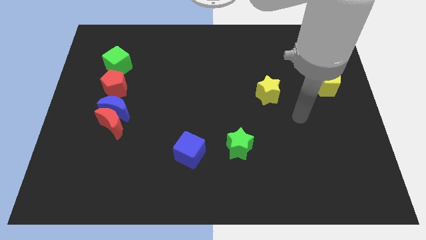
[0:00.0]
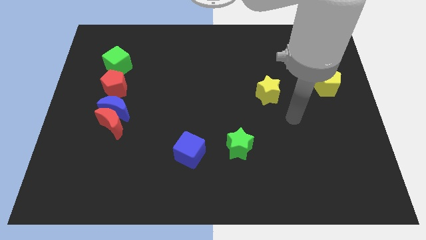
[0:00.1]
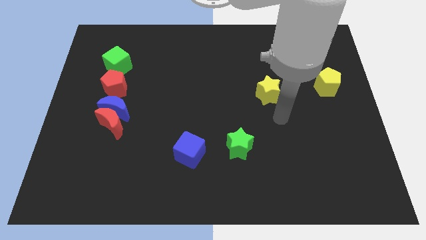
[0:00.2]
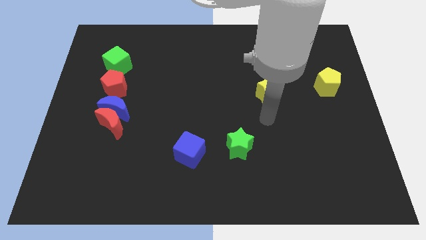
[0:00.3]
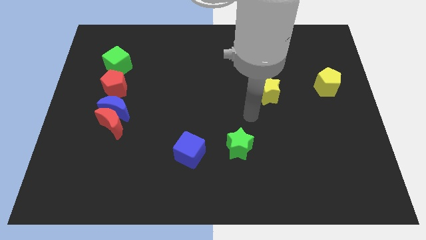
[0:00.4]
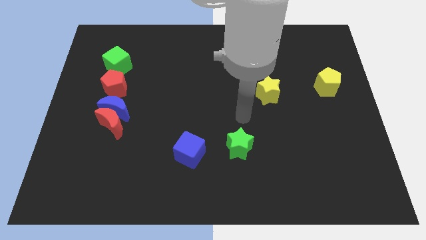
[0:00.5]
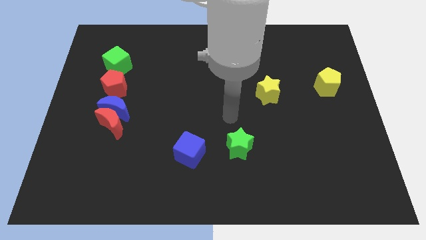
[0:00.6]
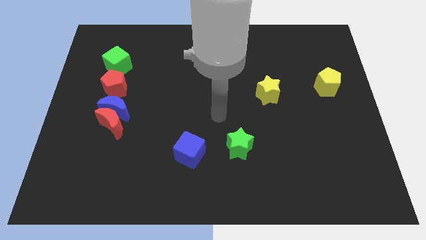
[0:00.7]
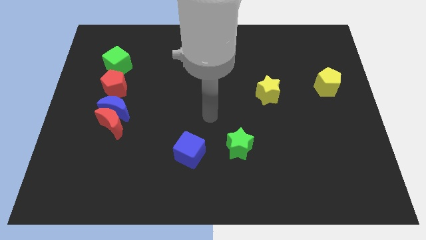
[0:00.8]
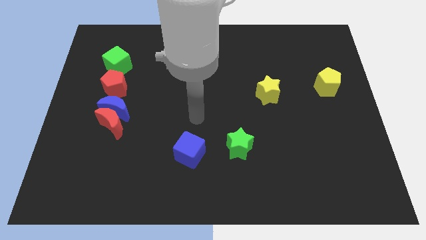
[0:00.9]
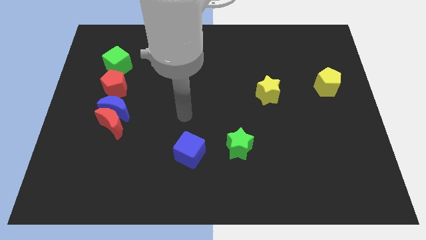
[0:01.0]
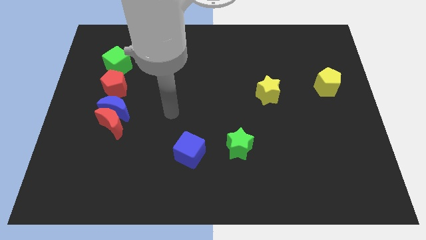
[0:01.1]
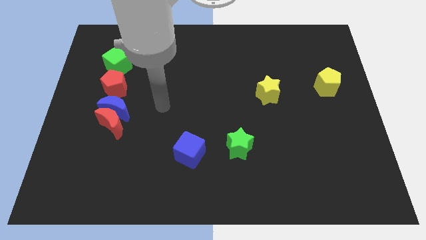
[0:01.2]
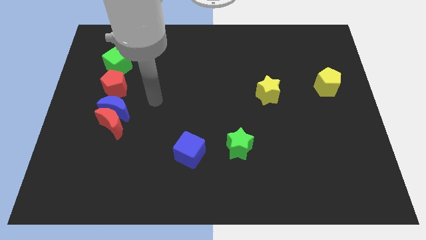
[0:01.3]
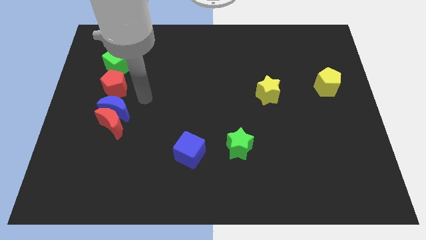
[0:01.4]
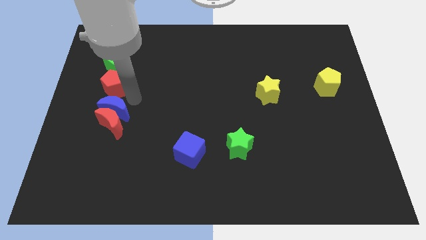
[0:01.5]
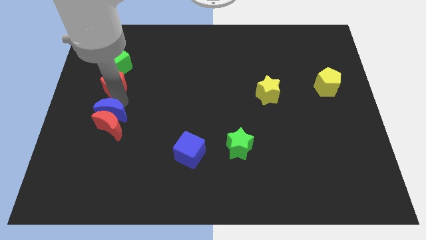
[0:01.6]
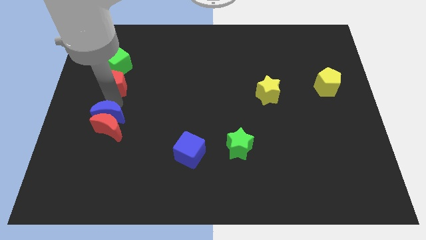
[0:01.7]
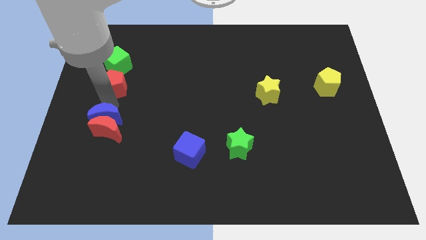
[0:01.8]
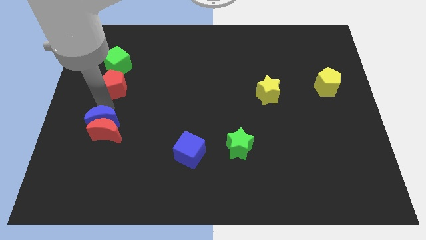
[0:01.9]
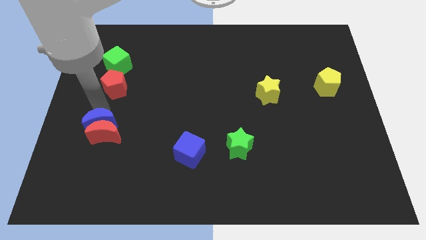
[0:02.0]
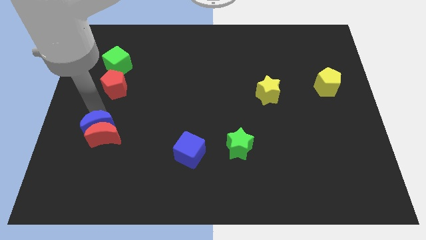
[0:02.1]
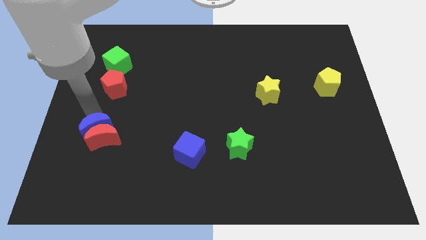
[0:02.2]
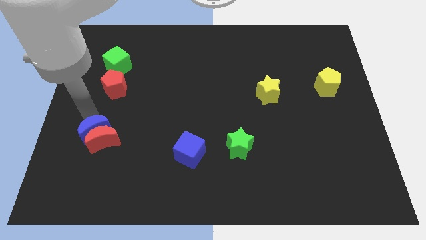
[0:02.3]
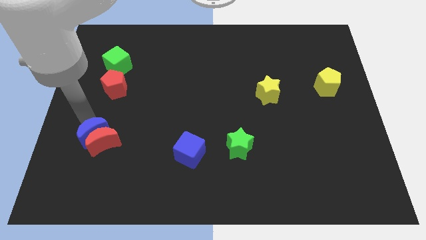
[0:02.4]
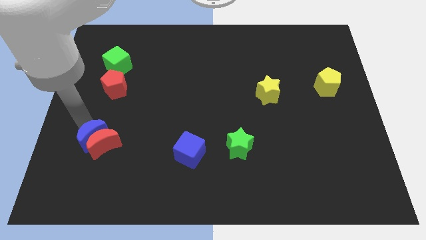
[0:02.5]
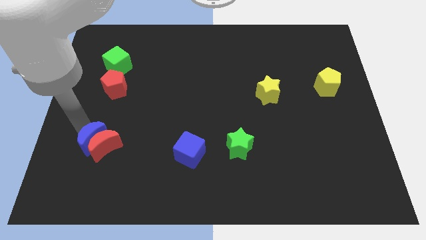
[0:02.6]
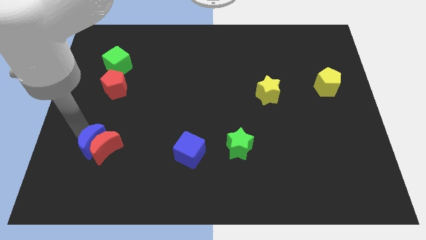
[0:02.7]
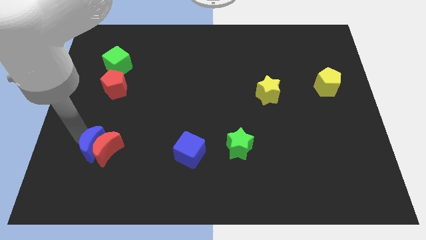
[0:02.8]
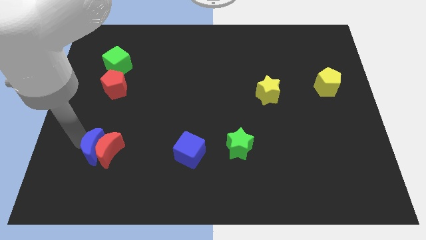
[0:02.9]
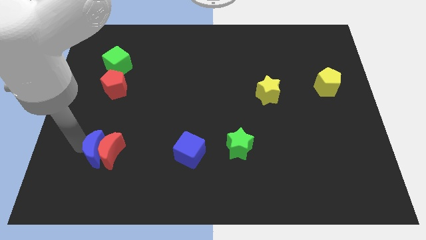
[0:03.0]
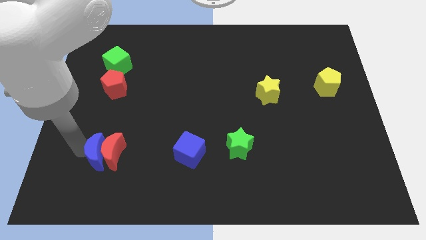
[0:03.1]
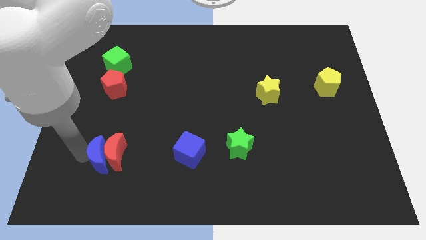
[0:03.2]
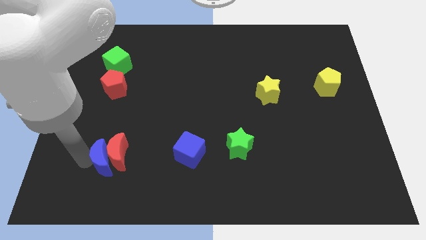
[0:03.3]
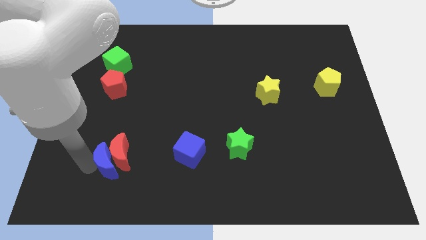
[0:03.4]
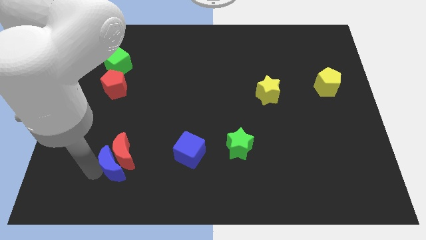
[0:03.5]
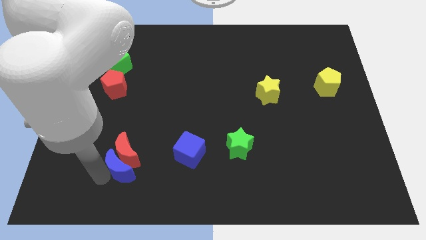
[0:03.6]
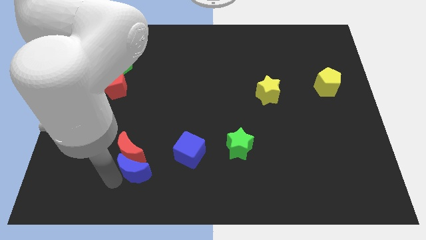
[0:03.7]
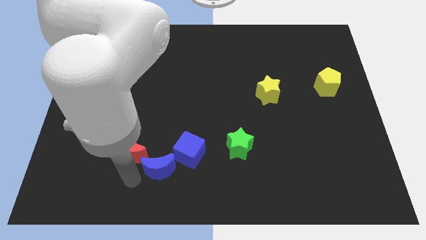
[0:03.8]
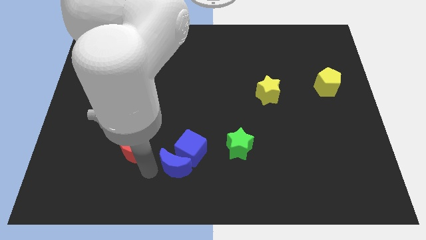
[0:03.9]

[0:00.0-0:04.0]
separate the red moon from the blue moon

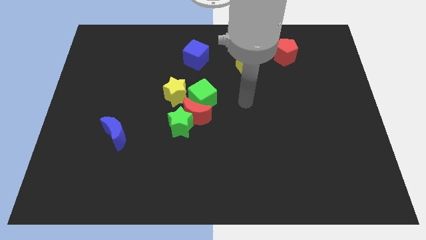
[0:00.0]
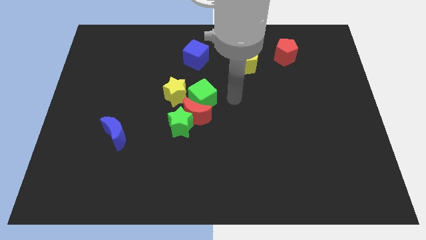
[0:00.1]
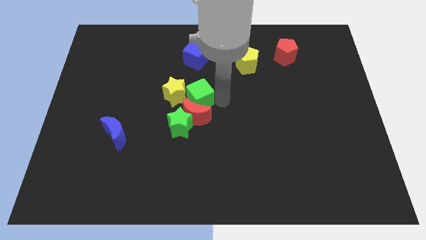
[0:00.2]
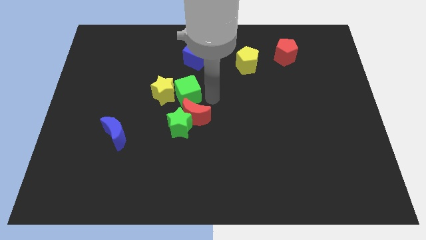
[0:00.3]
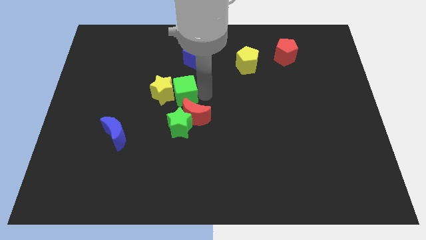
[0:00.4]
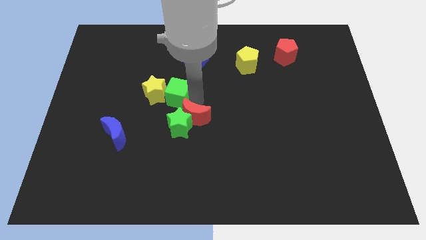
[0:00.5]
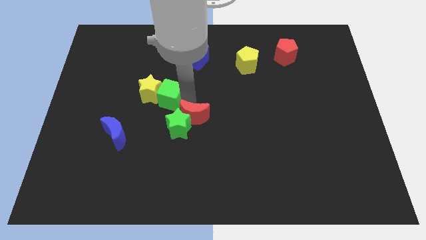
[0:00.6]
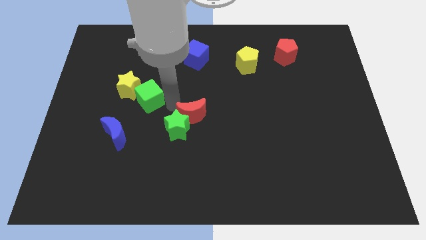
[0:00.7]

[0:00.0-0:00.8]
pull the red moon apart from the group

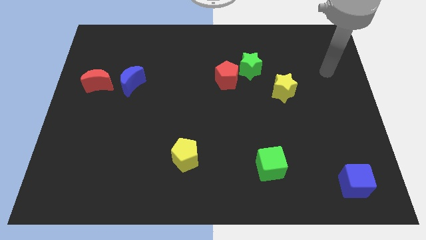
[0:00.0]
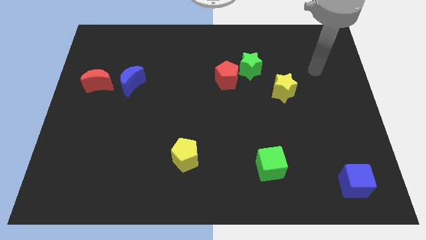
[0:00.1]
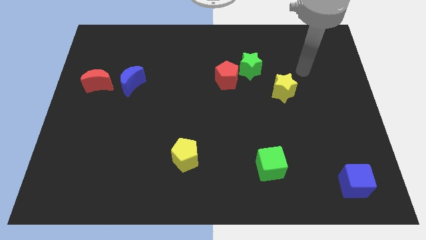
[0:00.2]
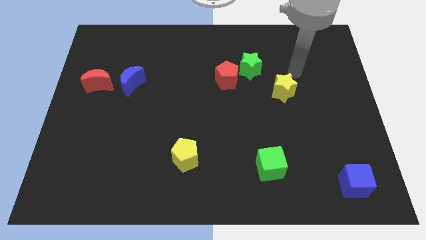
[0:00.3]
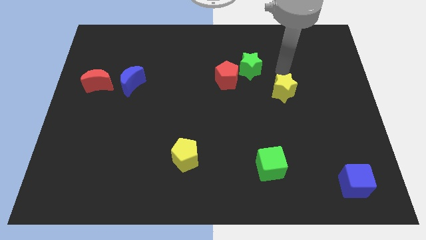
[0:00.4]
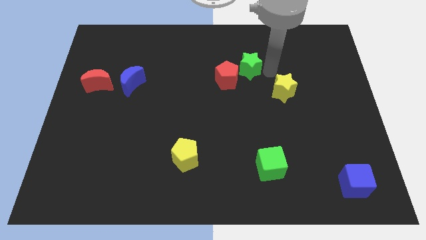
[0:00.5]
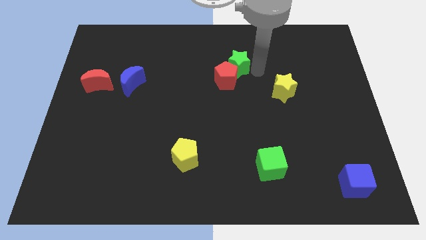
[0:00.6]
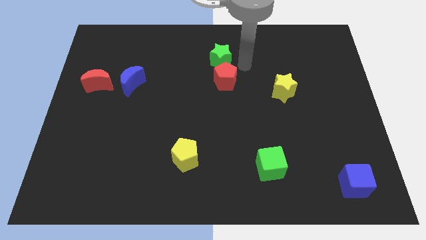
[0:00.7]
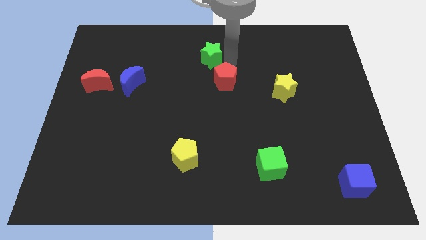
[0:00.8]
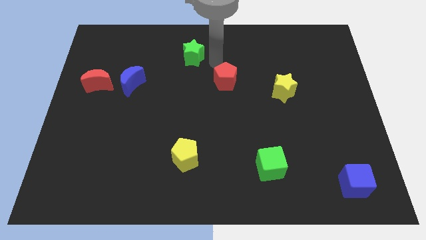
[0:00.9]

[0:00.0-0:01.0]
separate the red pentagon from the green star

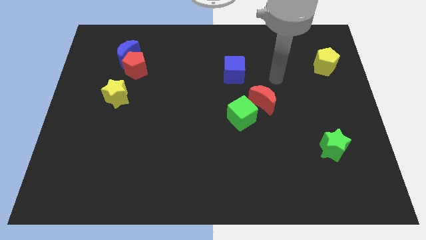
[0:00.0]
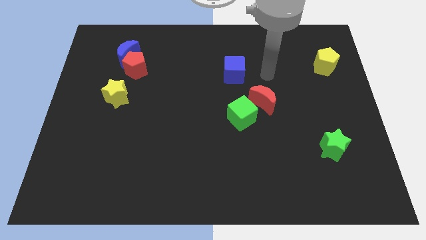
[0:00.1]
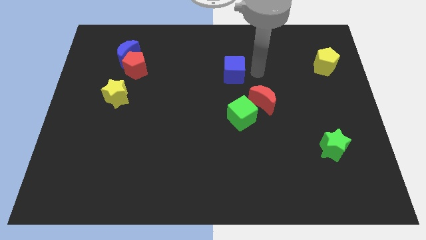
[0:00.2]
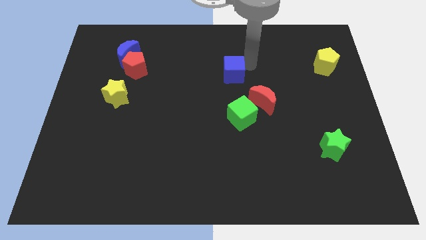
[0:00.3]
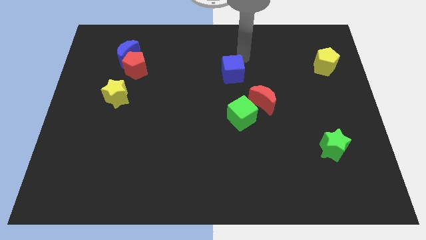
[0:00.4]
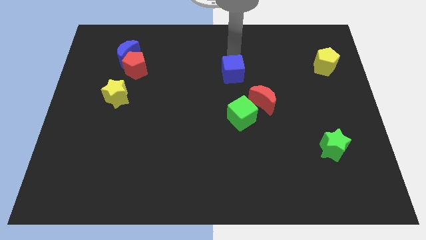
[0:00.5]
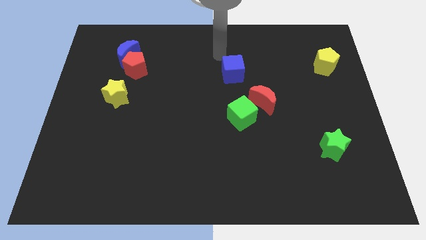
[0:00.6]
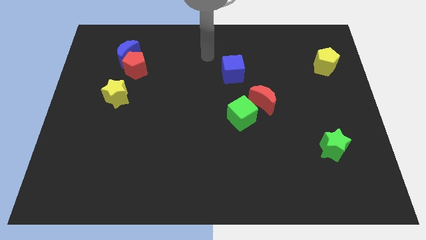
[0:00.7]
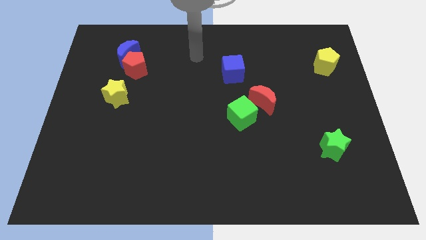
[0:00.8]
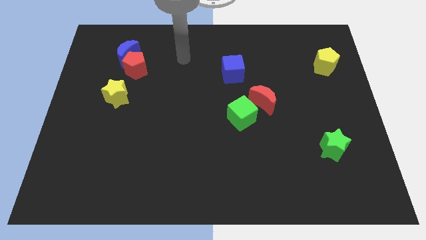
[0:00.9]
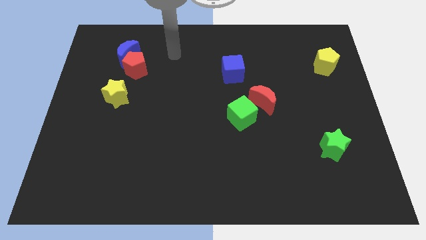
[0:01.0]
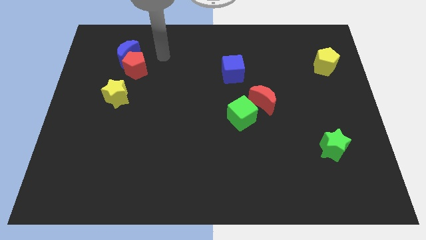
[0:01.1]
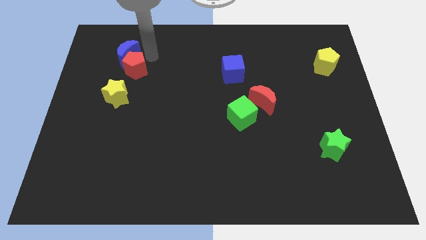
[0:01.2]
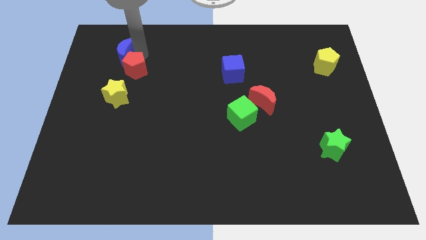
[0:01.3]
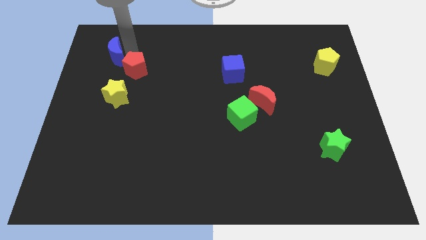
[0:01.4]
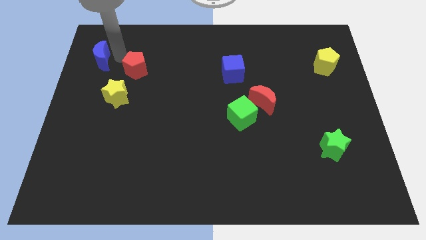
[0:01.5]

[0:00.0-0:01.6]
move the red pentagon away from the blue moon

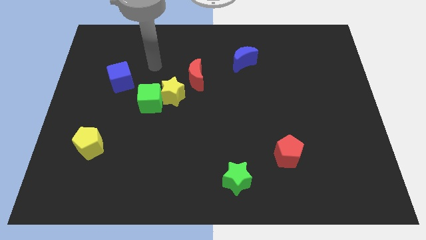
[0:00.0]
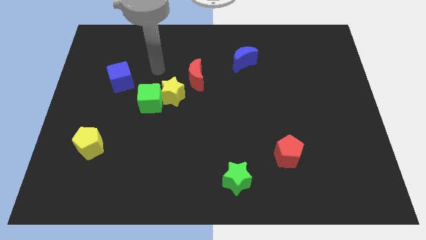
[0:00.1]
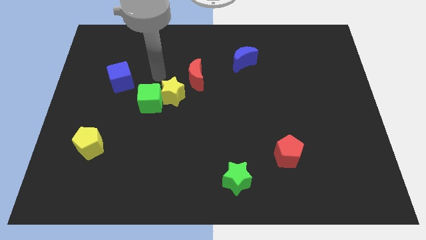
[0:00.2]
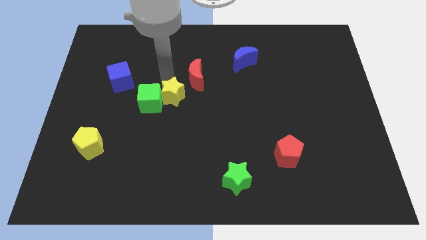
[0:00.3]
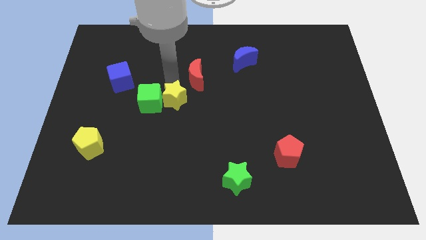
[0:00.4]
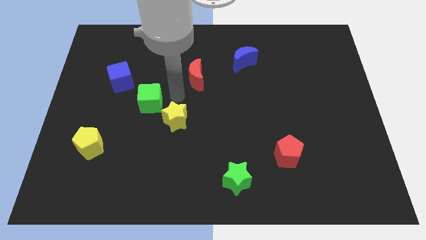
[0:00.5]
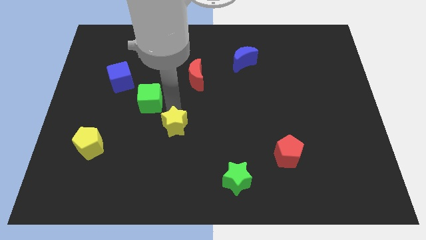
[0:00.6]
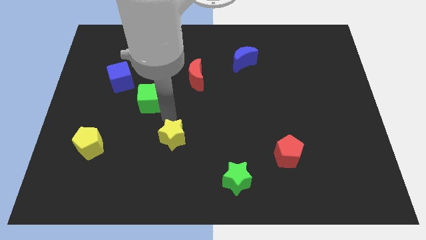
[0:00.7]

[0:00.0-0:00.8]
move the green cube away from the yellow star

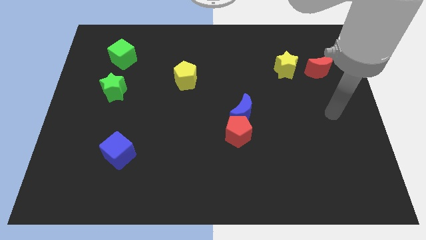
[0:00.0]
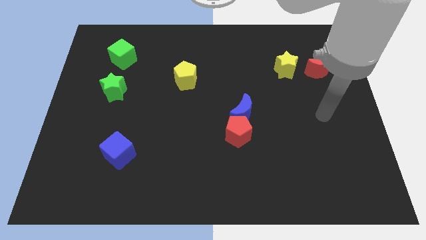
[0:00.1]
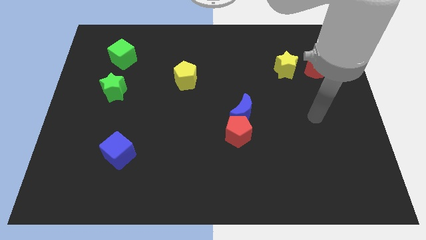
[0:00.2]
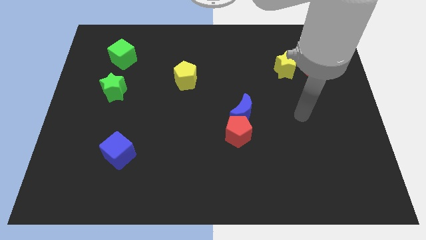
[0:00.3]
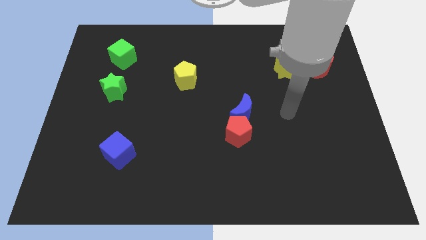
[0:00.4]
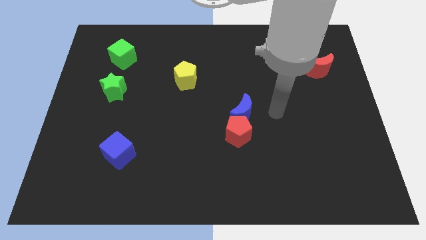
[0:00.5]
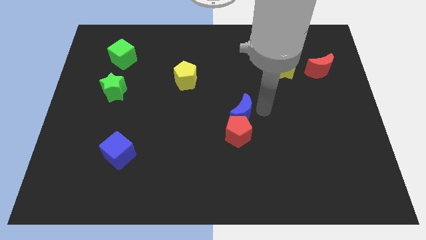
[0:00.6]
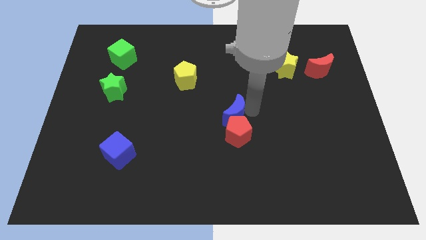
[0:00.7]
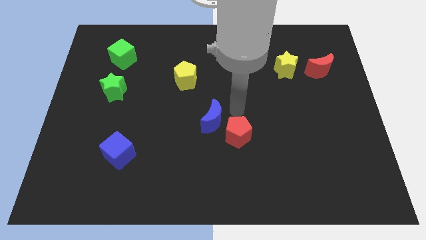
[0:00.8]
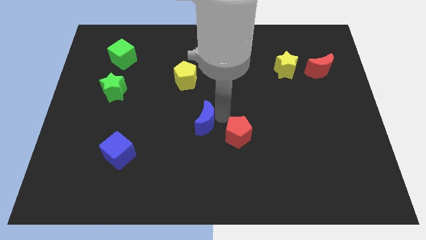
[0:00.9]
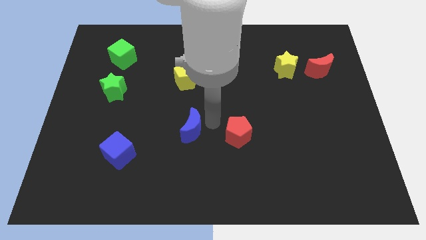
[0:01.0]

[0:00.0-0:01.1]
pull the red pentagon apart from the blue moon
